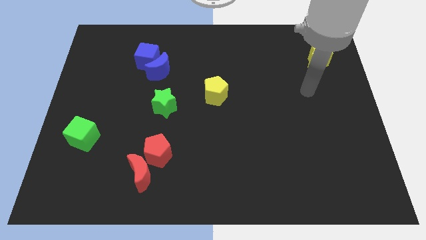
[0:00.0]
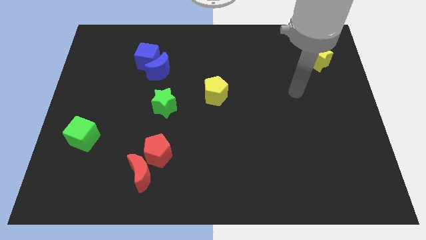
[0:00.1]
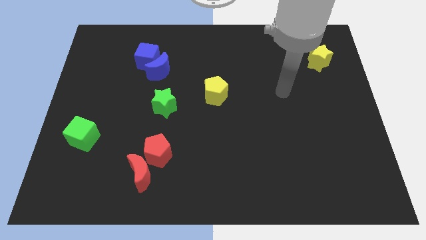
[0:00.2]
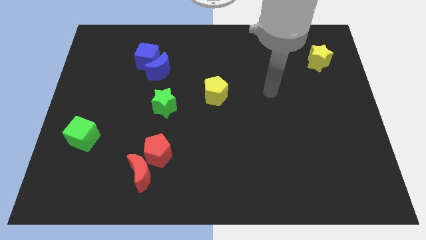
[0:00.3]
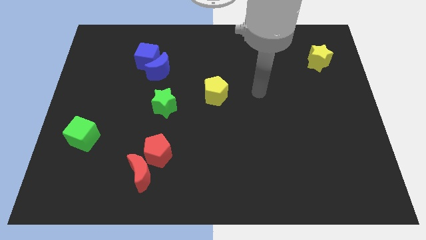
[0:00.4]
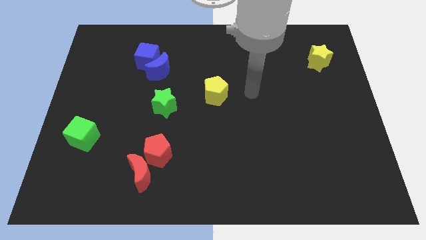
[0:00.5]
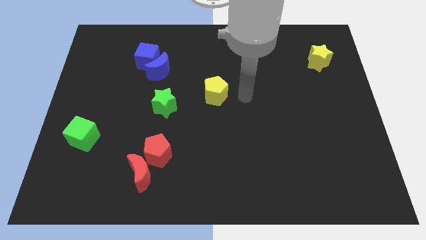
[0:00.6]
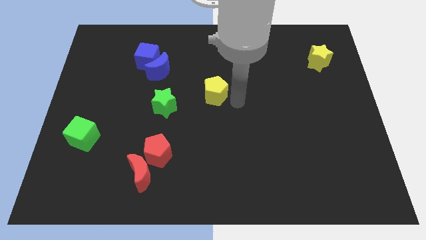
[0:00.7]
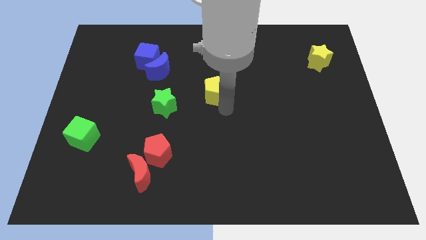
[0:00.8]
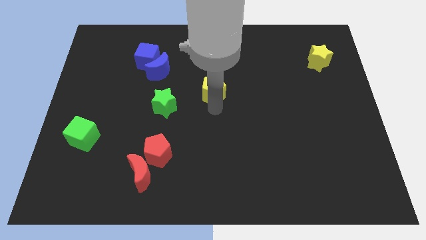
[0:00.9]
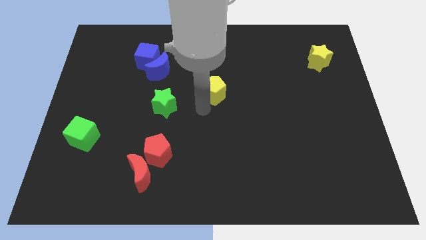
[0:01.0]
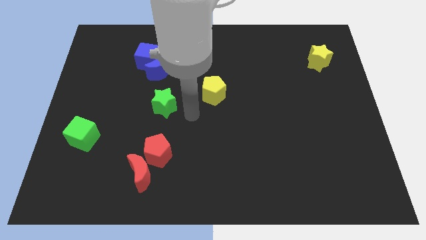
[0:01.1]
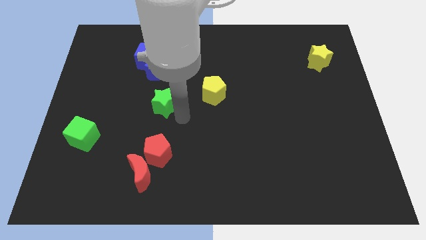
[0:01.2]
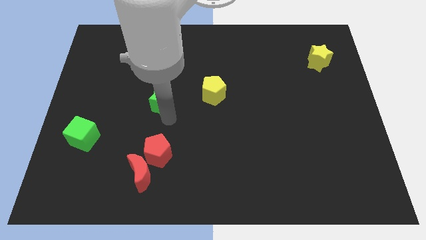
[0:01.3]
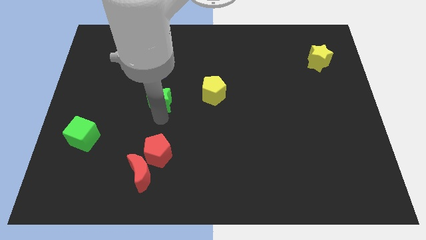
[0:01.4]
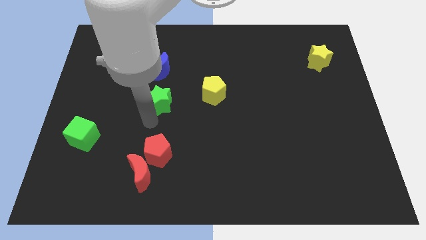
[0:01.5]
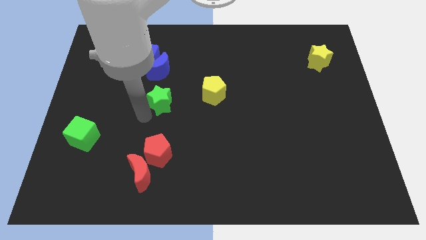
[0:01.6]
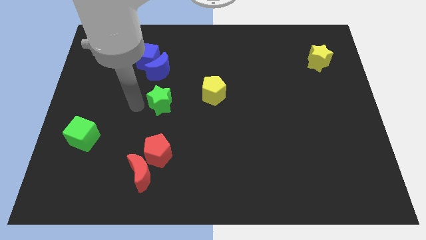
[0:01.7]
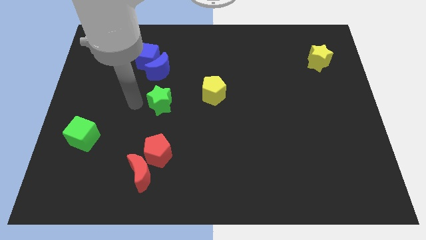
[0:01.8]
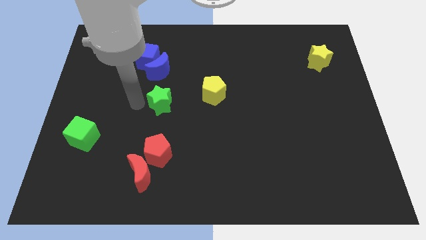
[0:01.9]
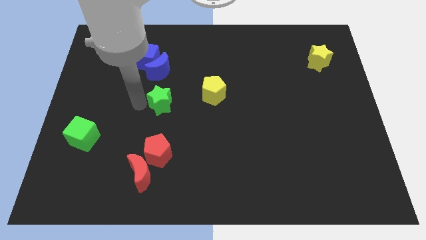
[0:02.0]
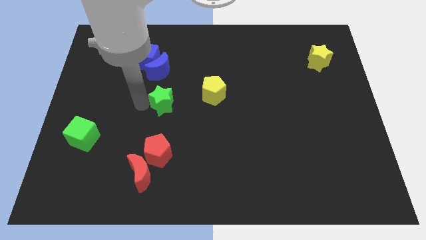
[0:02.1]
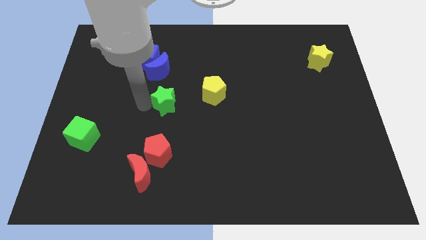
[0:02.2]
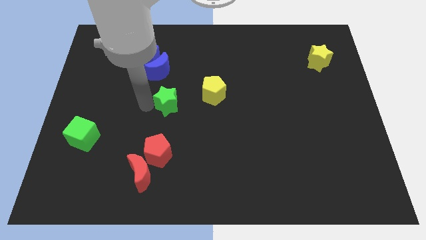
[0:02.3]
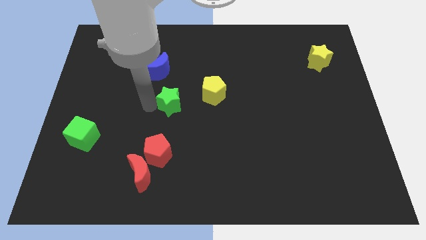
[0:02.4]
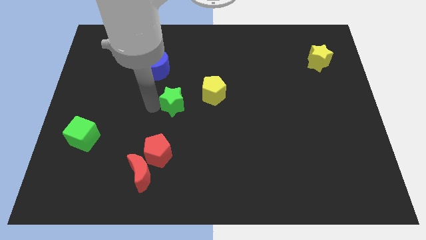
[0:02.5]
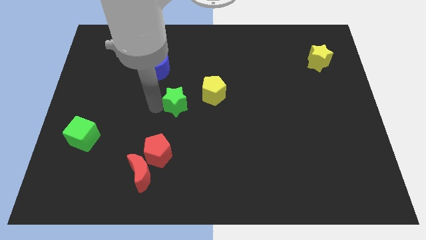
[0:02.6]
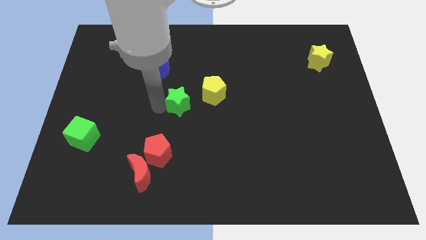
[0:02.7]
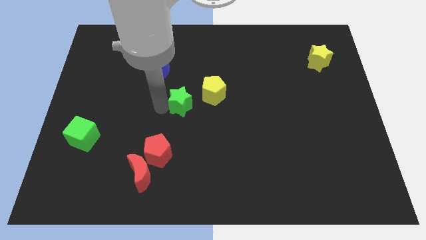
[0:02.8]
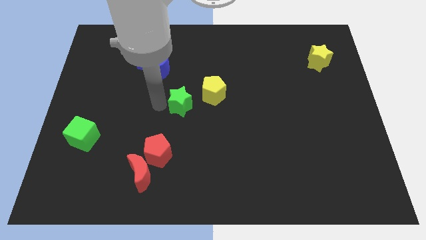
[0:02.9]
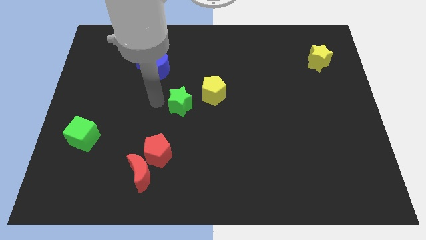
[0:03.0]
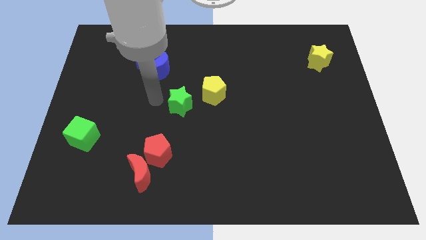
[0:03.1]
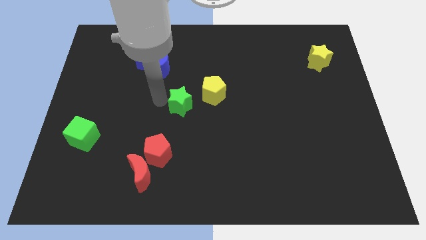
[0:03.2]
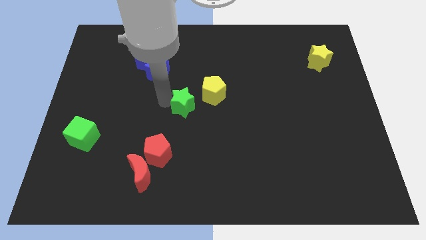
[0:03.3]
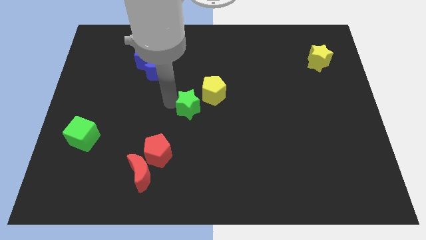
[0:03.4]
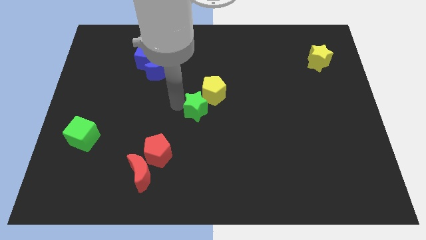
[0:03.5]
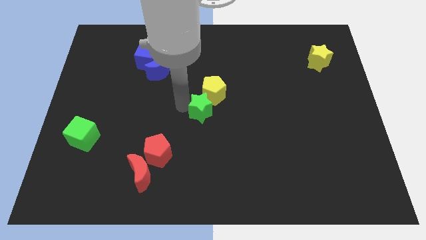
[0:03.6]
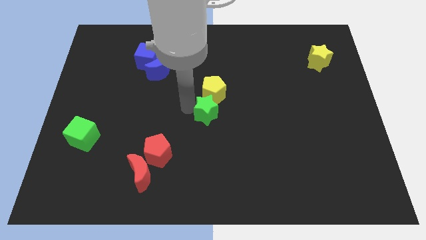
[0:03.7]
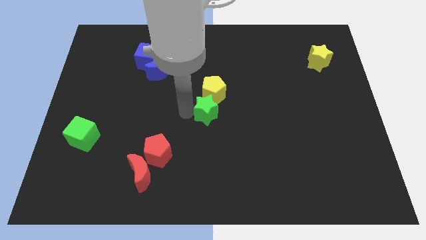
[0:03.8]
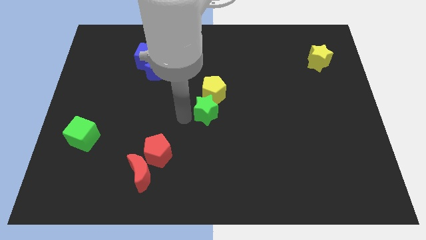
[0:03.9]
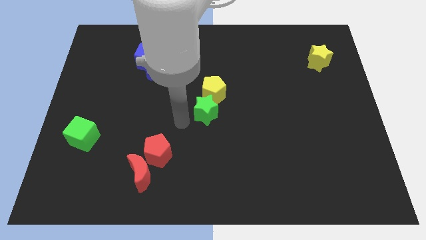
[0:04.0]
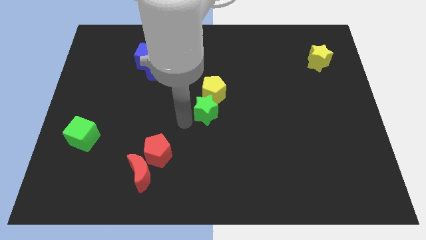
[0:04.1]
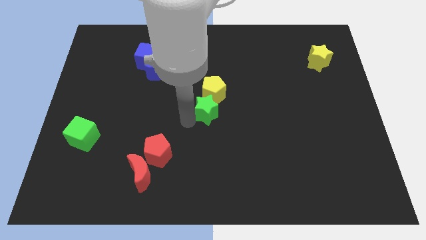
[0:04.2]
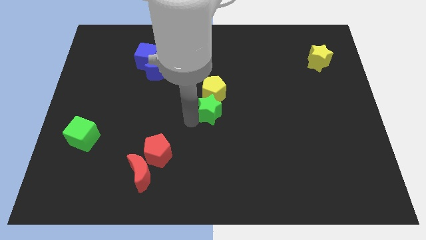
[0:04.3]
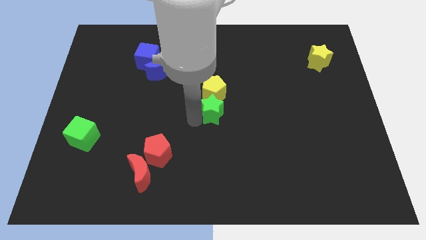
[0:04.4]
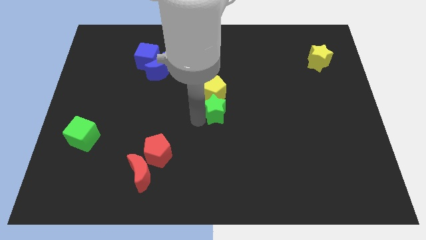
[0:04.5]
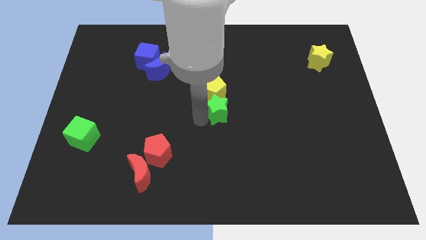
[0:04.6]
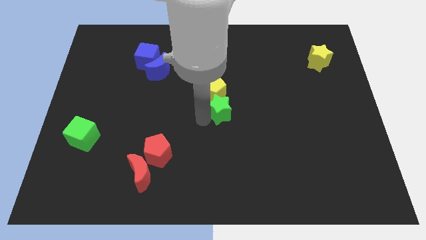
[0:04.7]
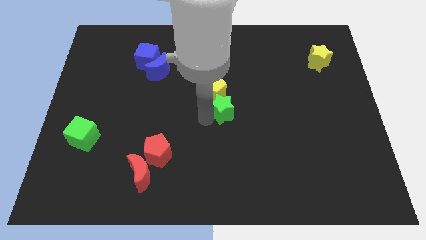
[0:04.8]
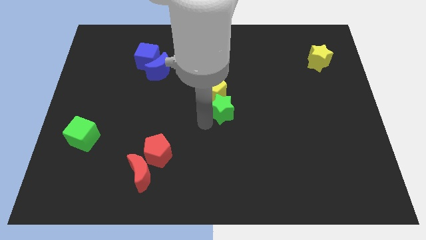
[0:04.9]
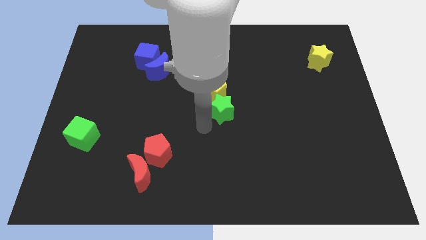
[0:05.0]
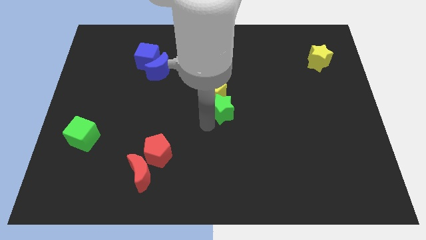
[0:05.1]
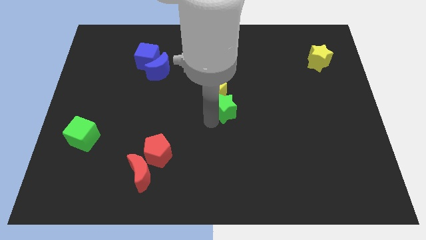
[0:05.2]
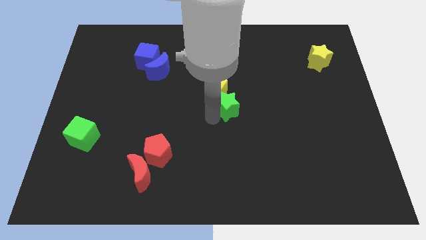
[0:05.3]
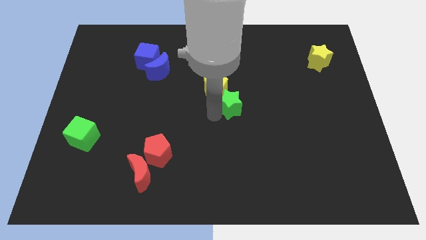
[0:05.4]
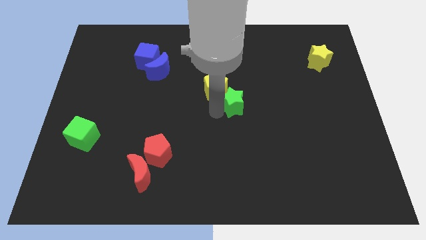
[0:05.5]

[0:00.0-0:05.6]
move the green star to the right of the yellow pentagon

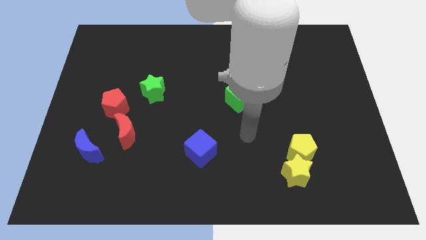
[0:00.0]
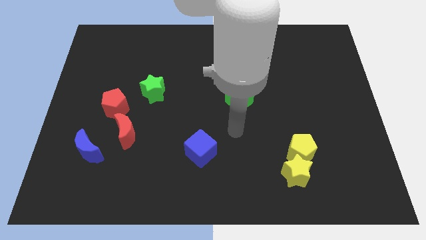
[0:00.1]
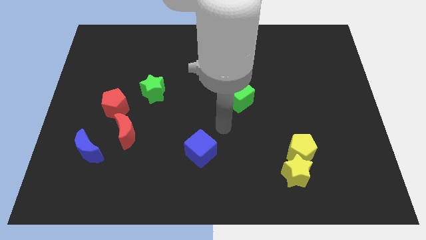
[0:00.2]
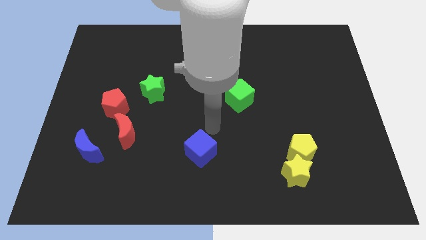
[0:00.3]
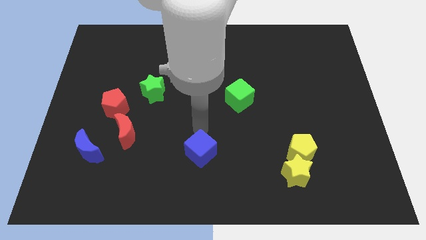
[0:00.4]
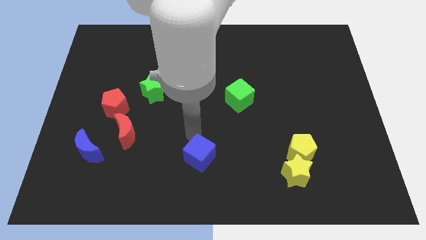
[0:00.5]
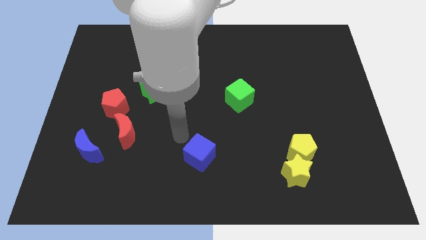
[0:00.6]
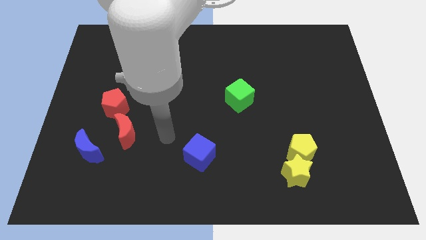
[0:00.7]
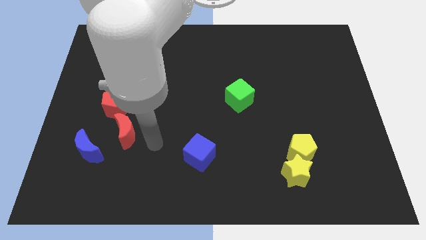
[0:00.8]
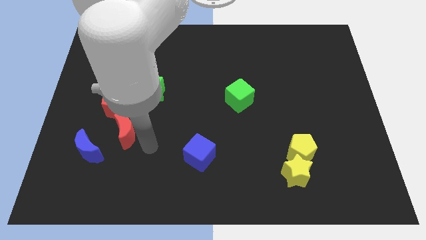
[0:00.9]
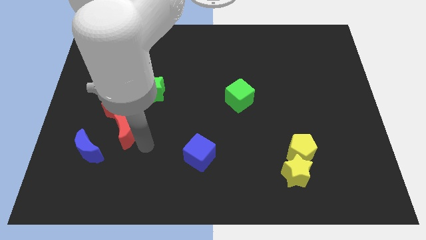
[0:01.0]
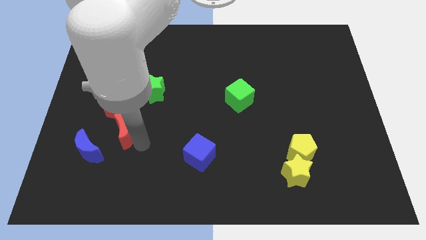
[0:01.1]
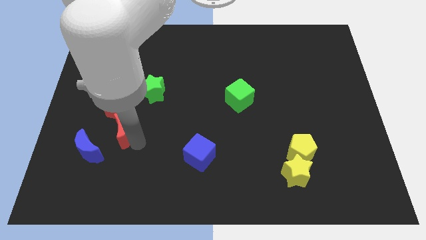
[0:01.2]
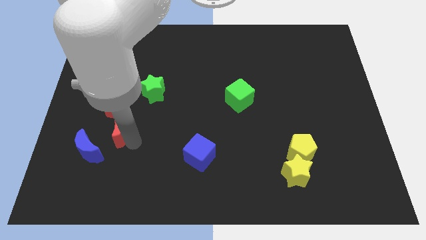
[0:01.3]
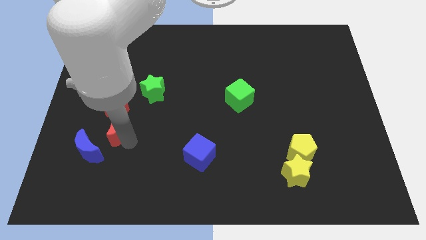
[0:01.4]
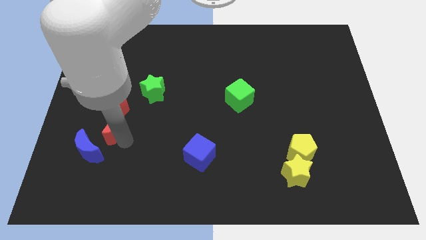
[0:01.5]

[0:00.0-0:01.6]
move the red moon to the top of the blue moon
